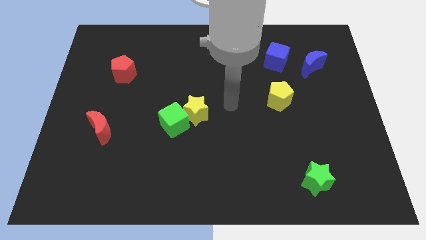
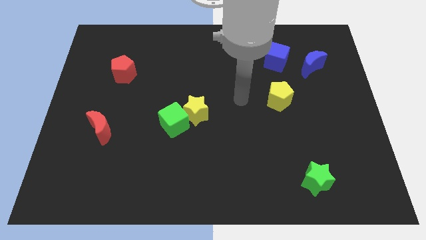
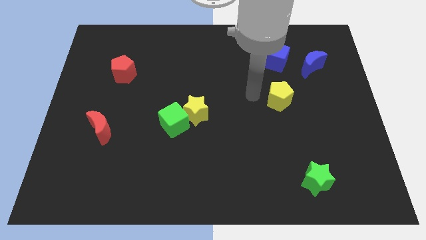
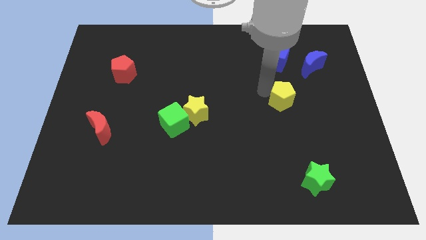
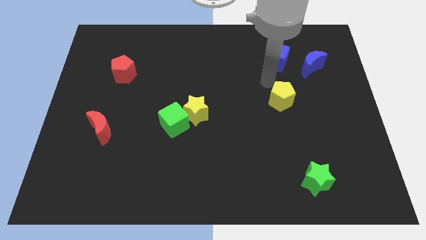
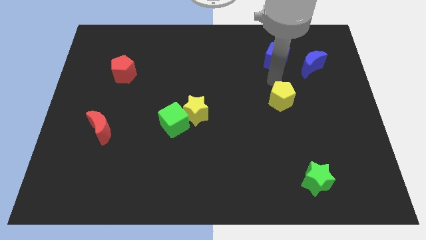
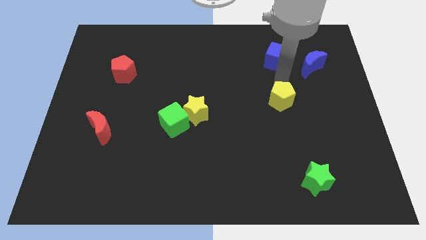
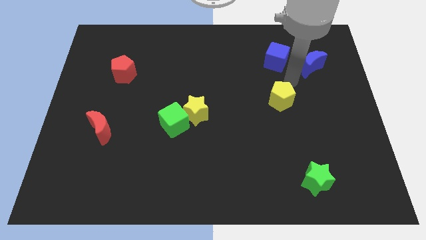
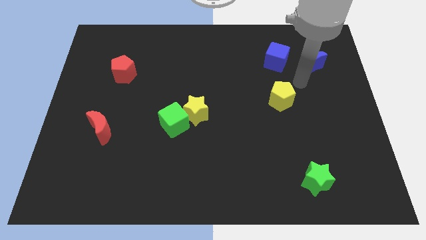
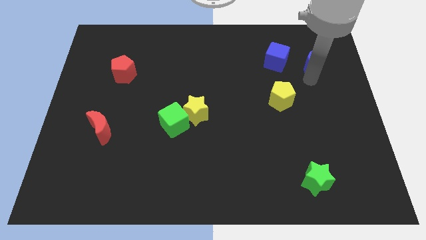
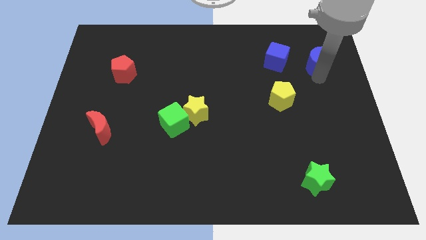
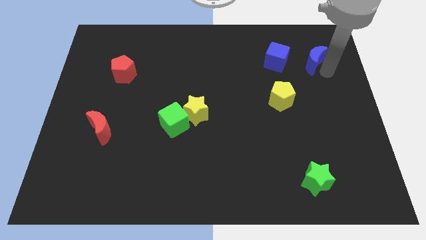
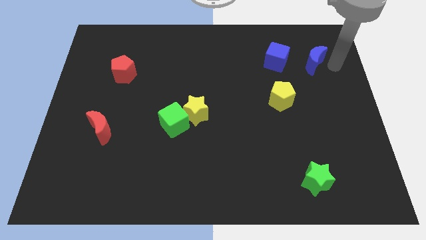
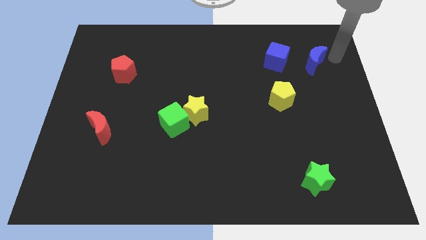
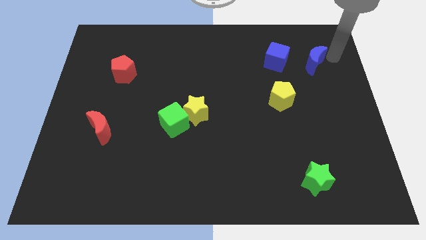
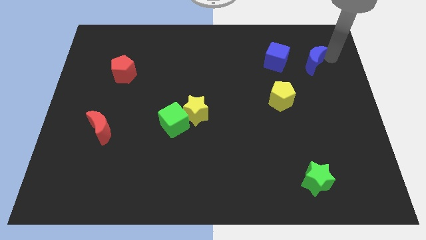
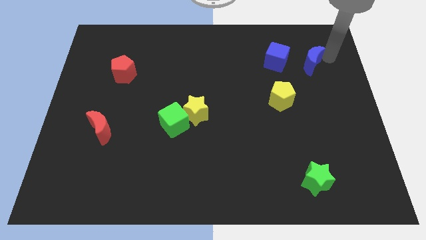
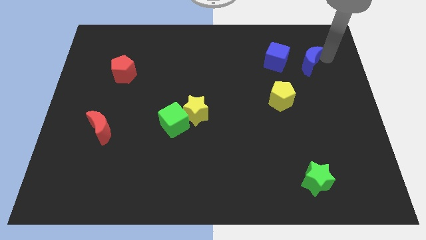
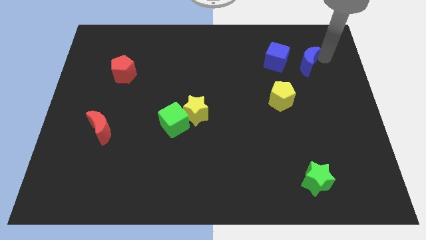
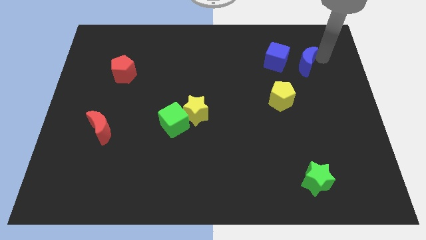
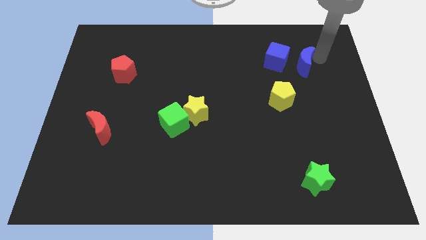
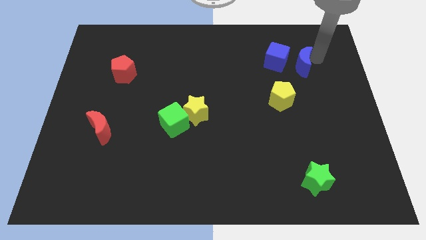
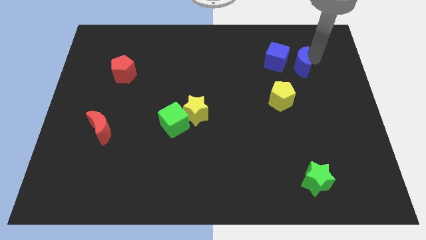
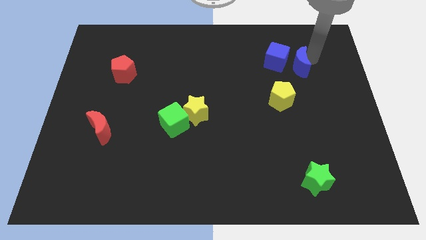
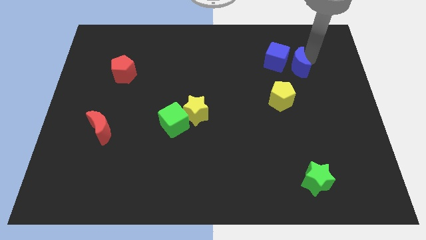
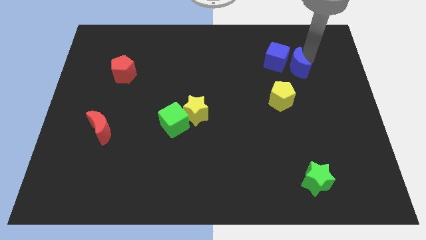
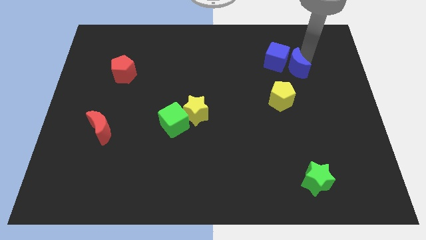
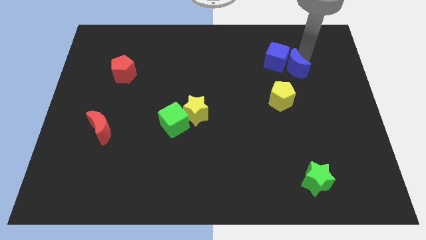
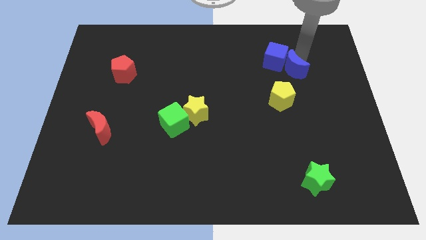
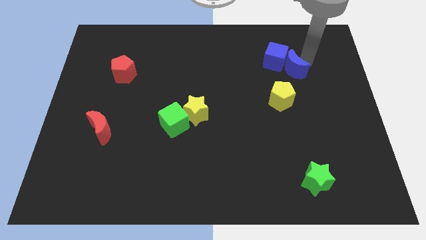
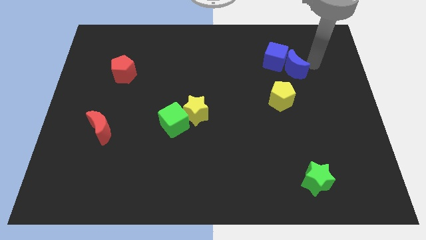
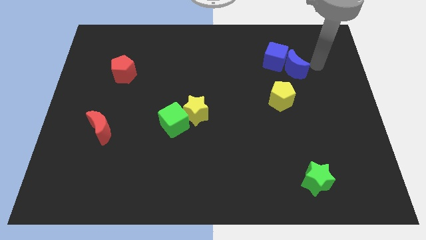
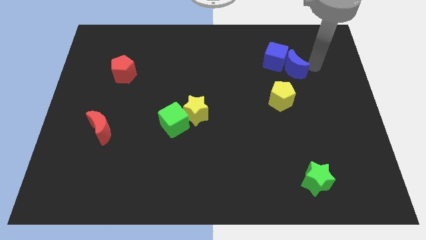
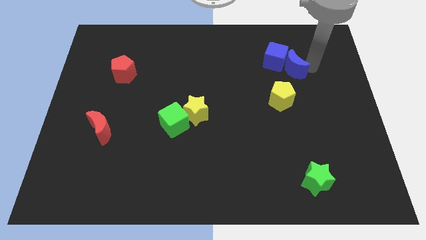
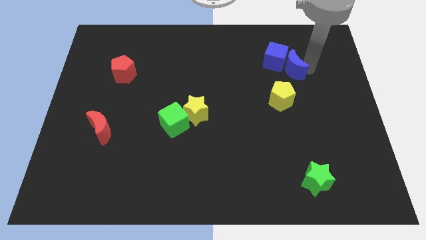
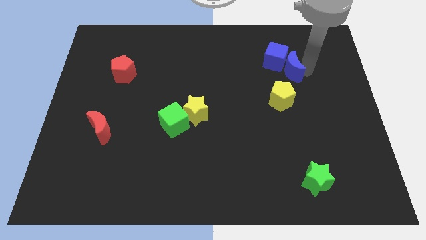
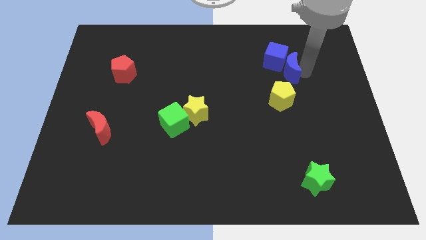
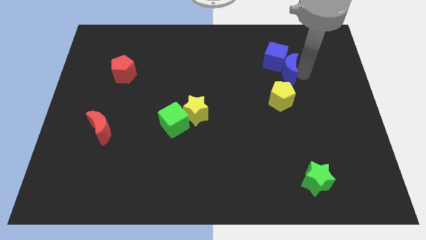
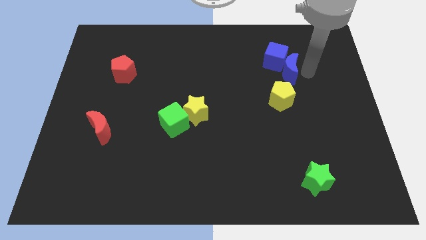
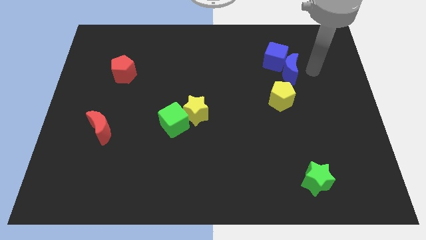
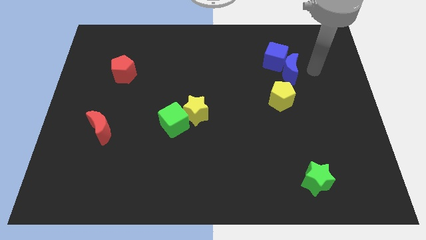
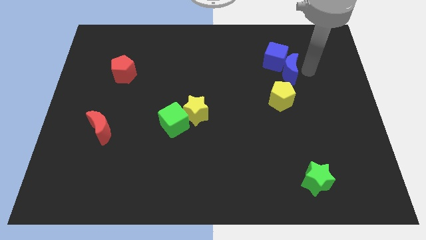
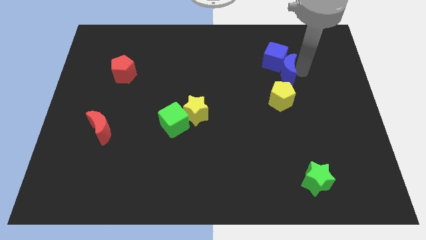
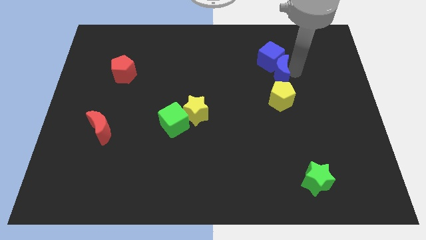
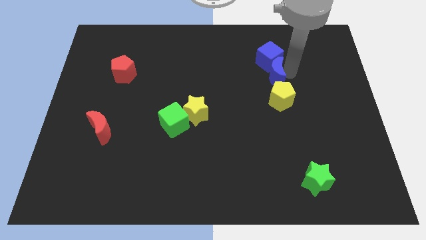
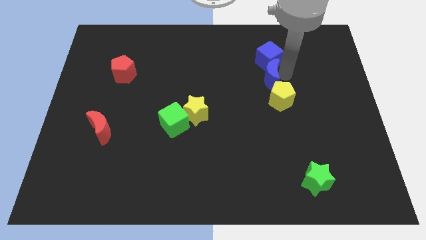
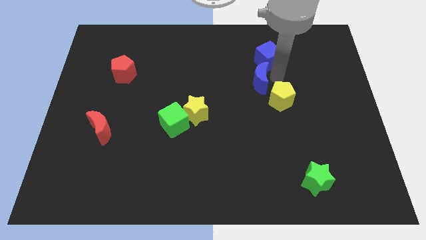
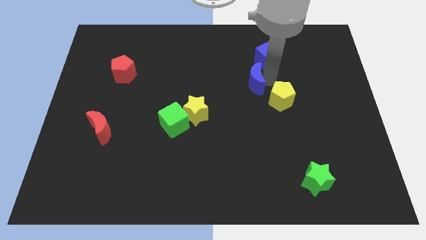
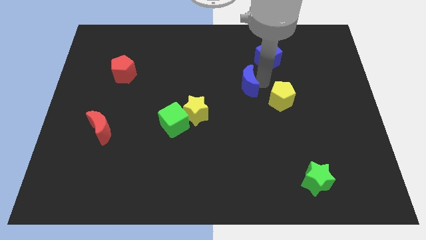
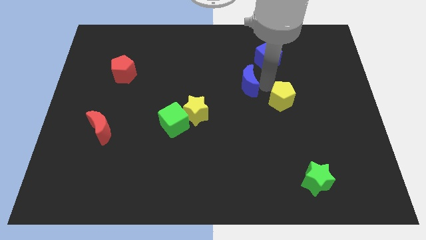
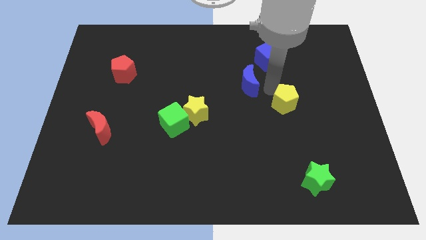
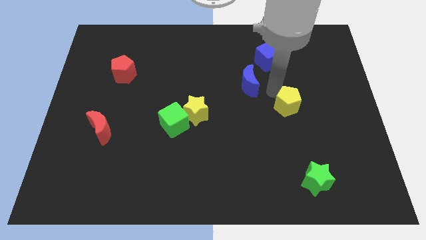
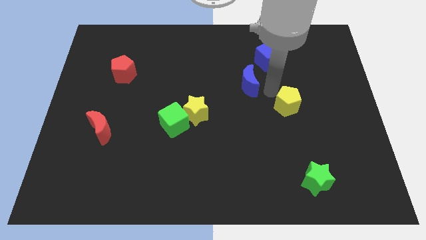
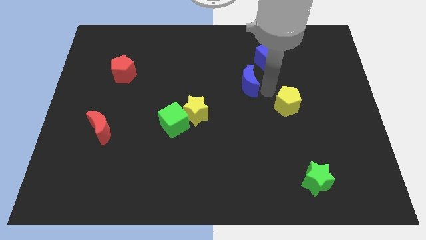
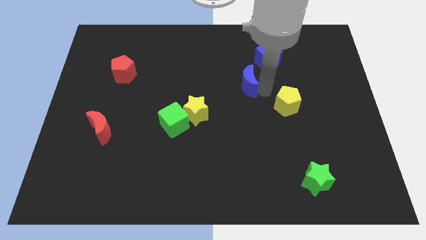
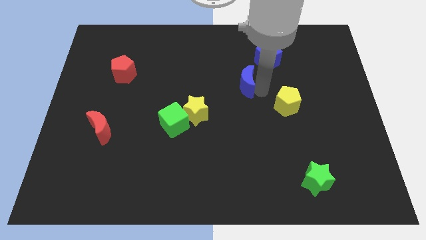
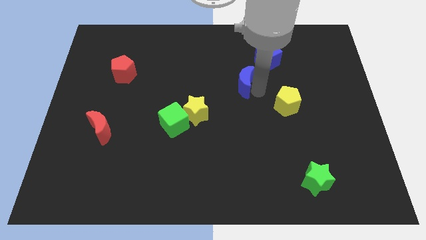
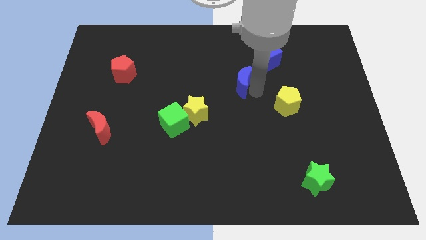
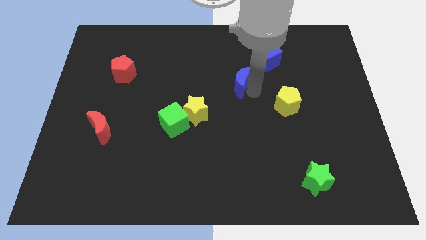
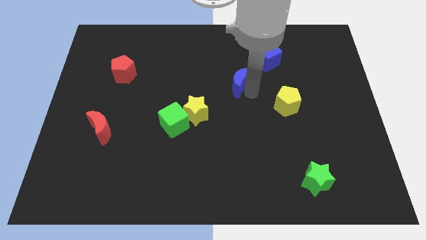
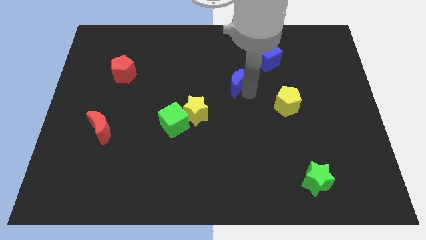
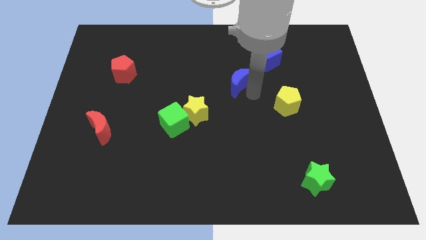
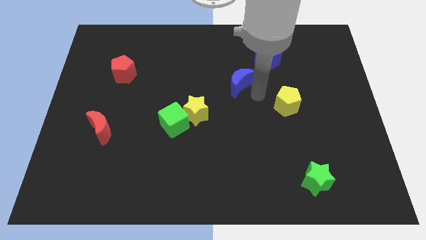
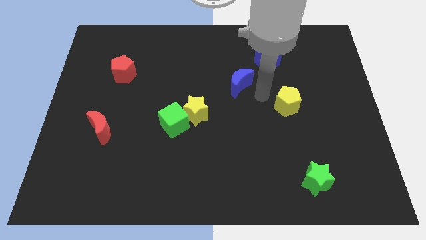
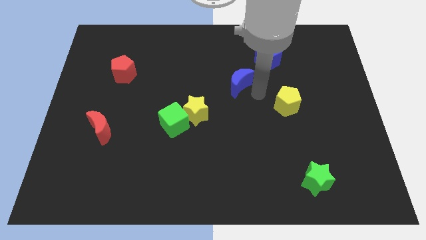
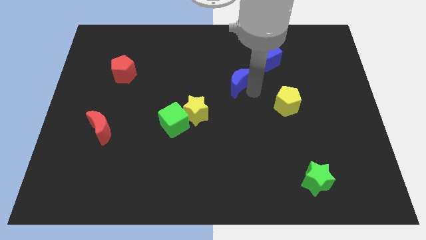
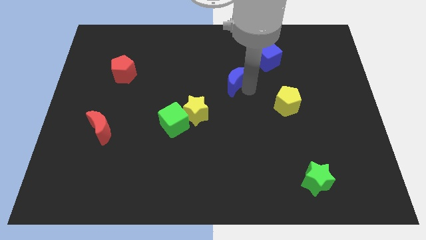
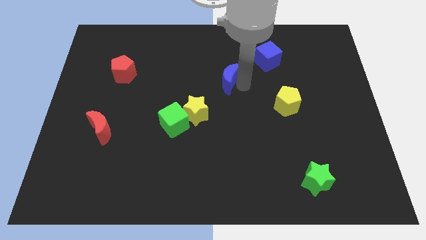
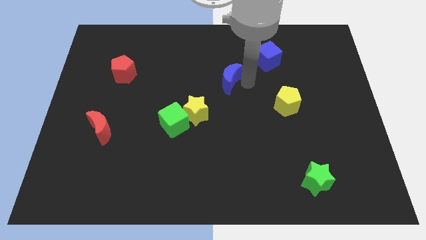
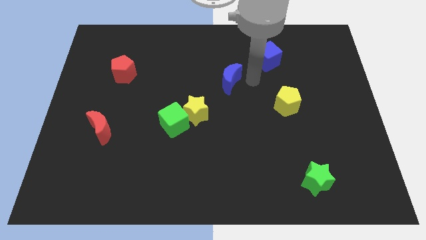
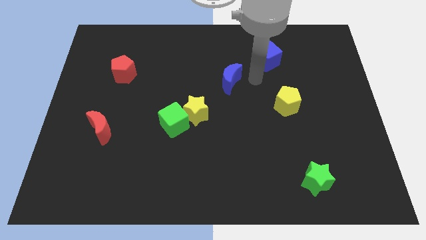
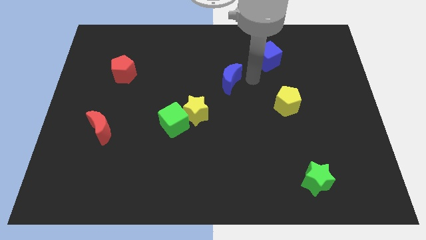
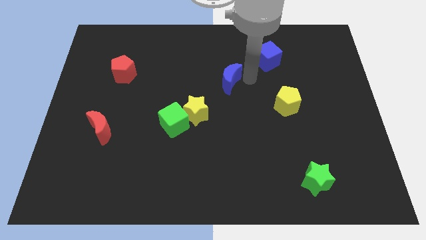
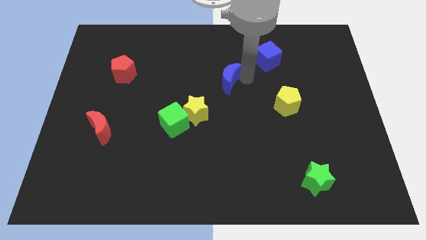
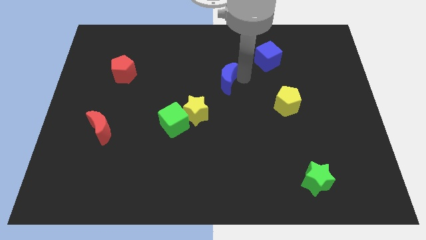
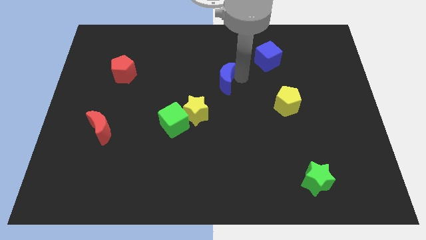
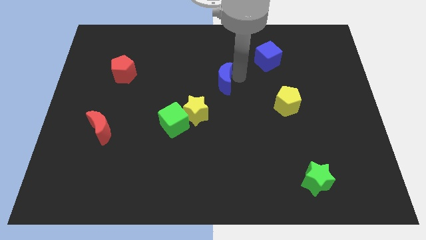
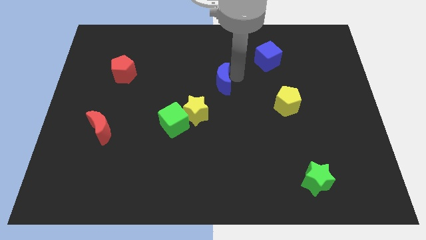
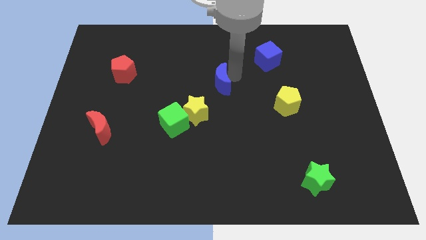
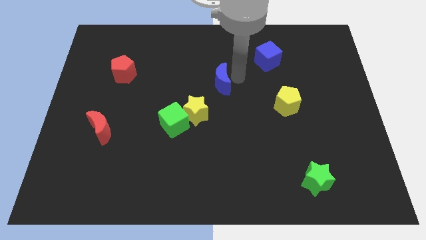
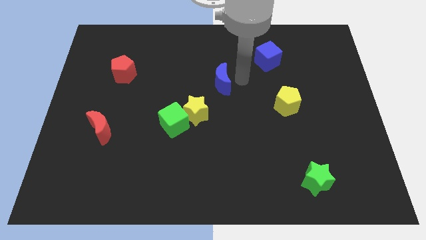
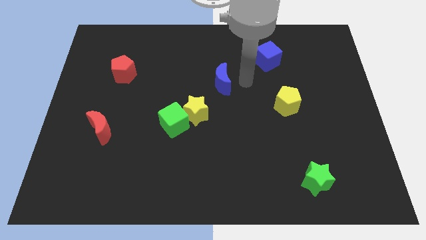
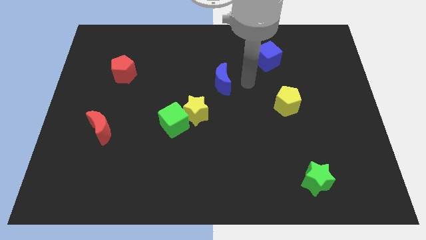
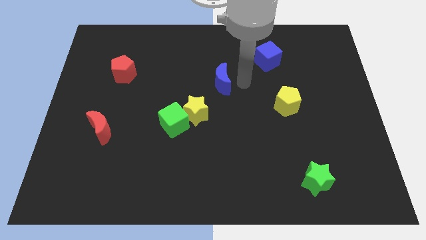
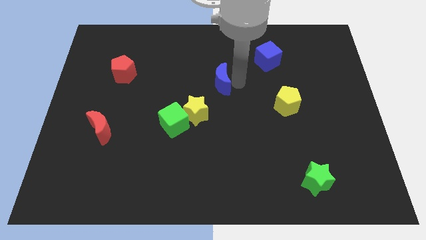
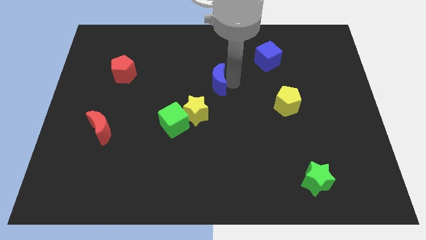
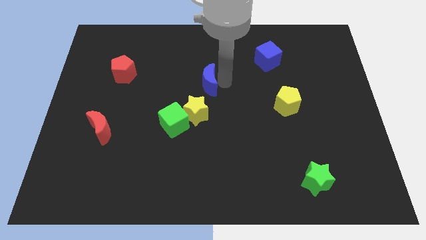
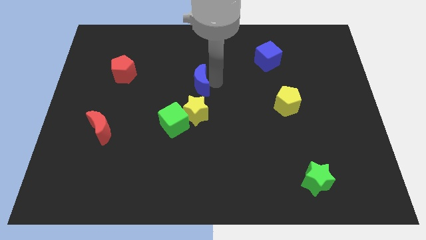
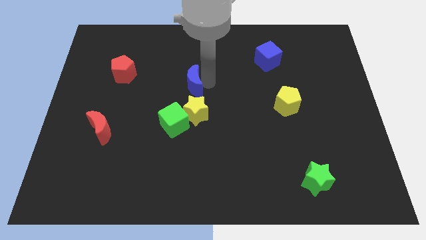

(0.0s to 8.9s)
push the blue moon above the green cube
